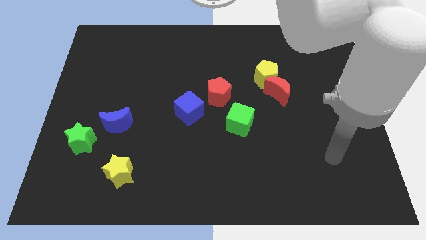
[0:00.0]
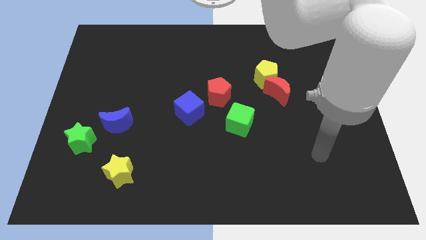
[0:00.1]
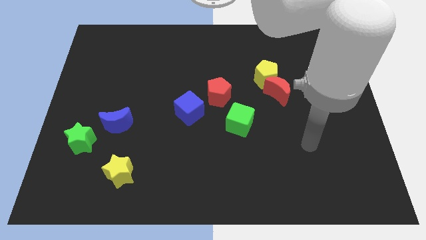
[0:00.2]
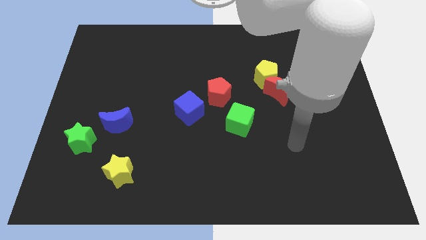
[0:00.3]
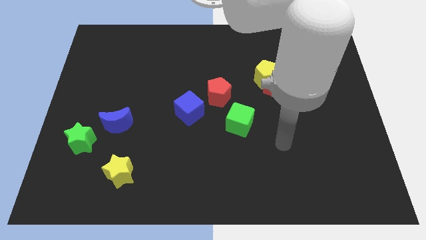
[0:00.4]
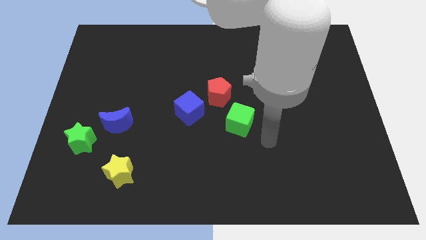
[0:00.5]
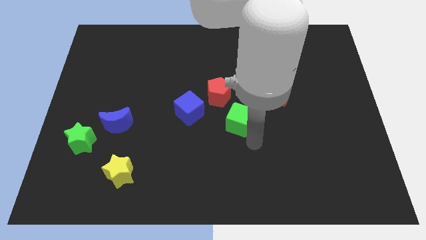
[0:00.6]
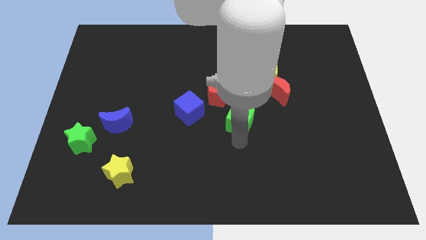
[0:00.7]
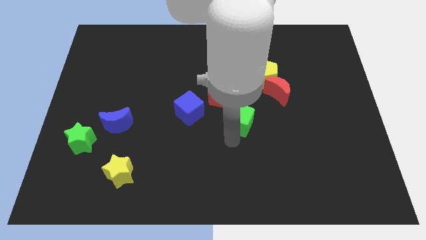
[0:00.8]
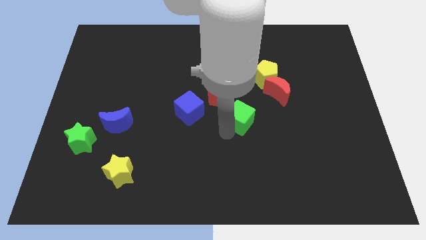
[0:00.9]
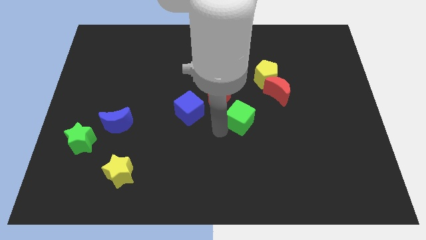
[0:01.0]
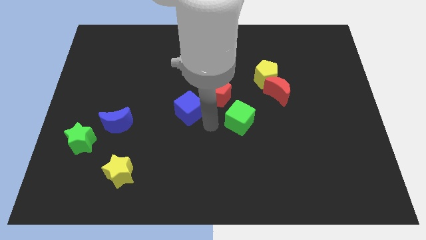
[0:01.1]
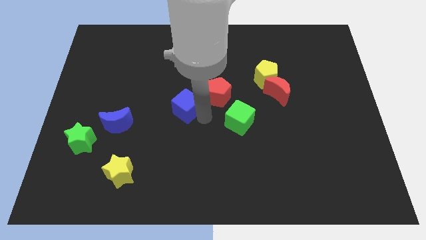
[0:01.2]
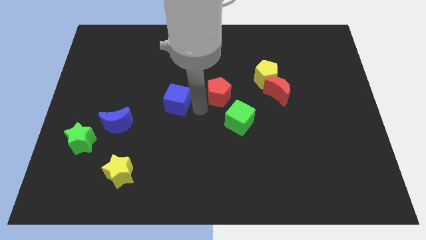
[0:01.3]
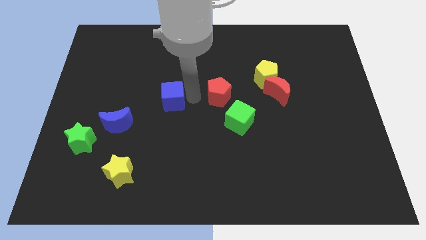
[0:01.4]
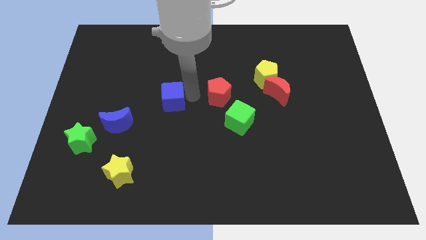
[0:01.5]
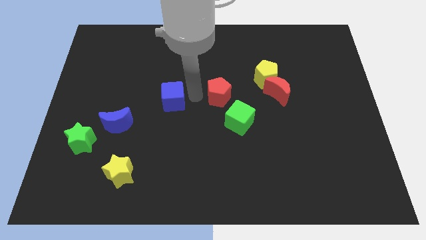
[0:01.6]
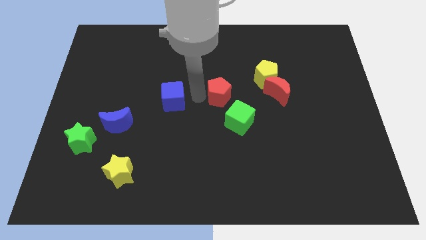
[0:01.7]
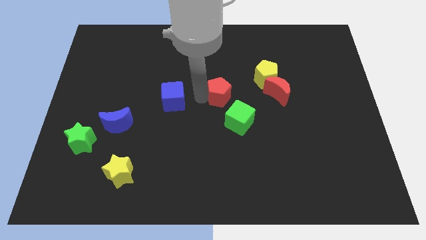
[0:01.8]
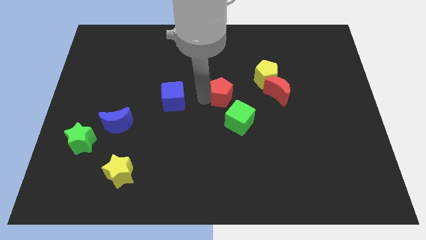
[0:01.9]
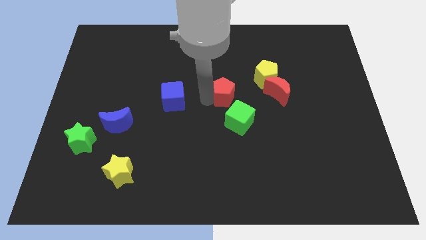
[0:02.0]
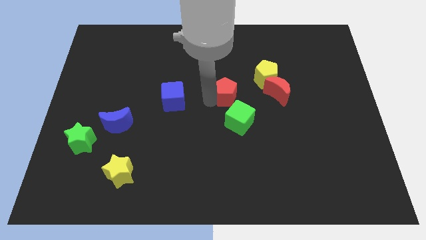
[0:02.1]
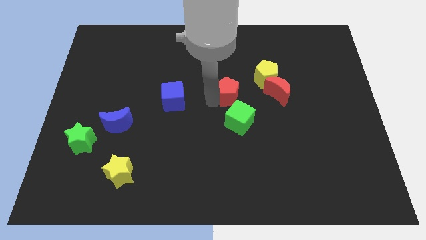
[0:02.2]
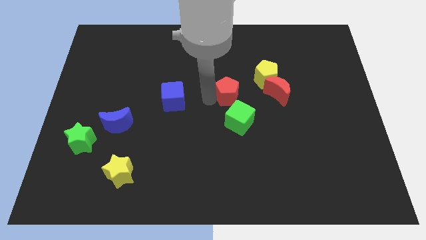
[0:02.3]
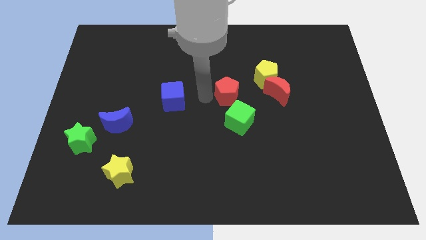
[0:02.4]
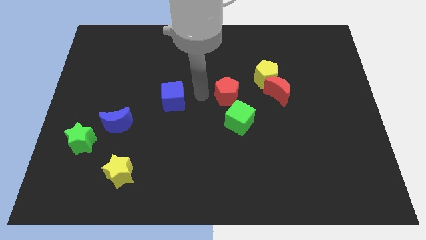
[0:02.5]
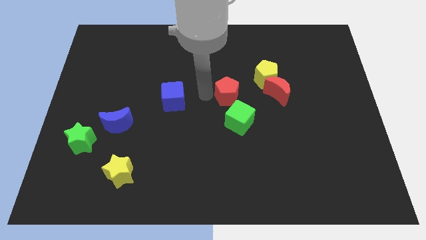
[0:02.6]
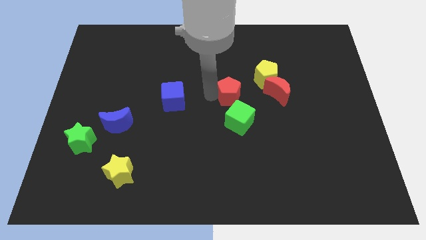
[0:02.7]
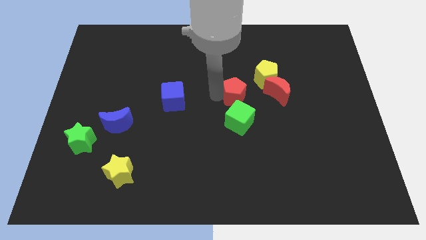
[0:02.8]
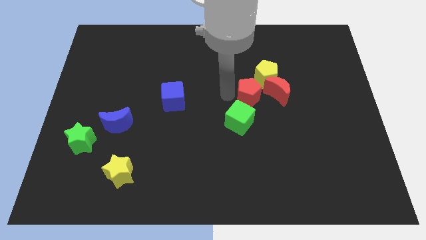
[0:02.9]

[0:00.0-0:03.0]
slide the red pentagon right a bit

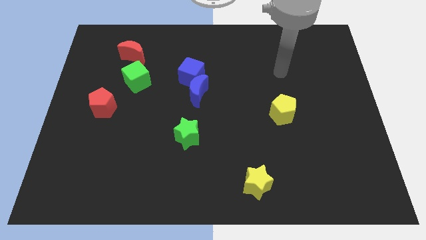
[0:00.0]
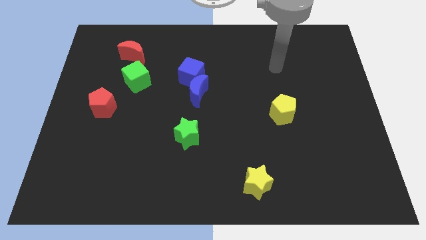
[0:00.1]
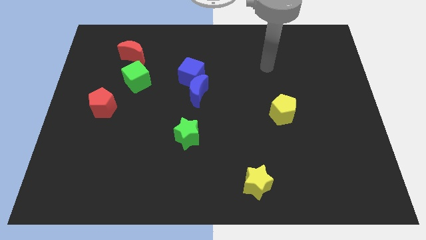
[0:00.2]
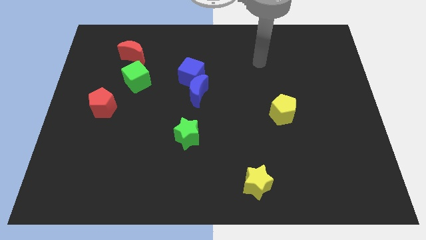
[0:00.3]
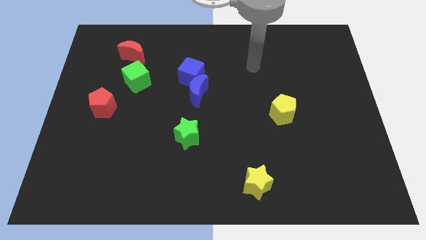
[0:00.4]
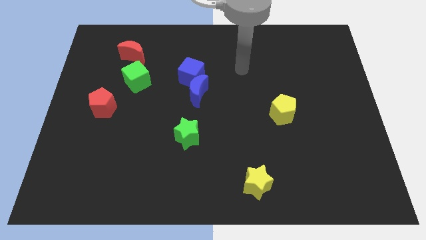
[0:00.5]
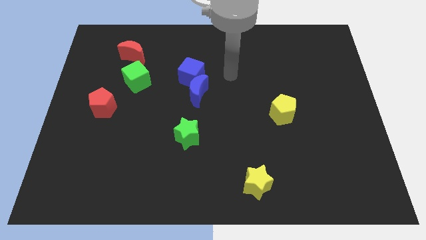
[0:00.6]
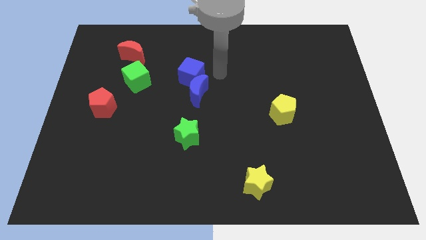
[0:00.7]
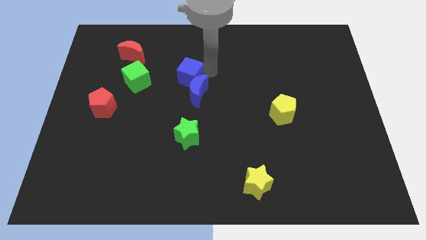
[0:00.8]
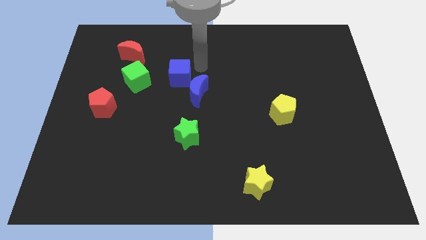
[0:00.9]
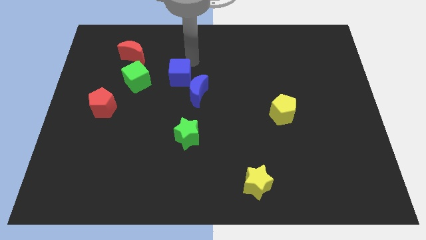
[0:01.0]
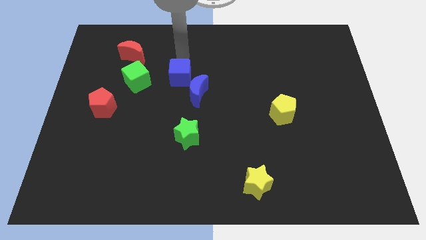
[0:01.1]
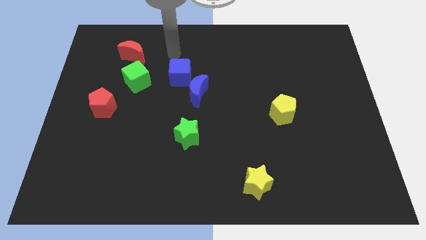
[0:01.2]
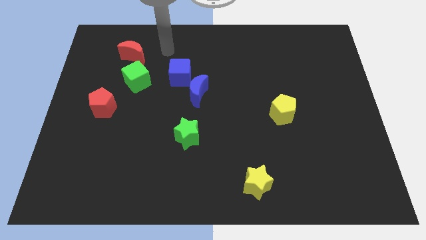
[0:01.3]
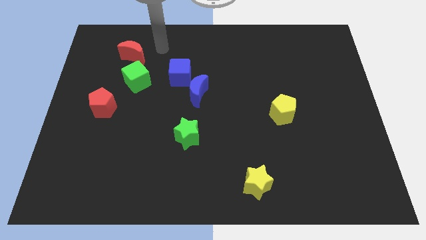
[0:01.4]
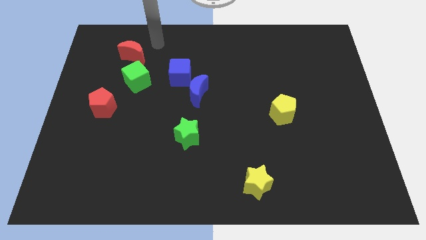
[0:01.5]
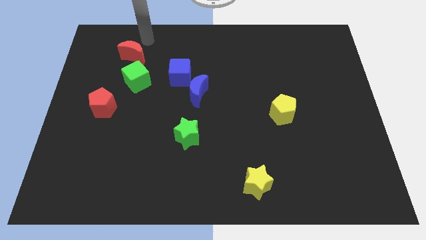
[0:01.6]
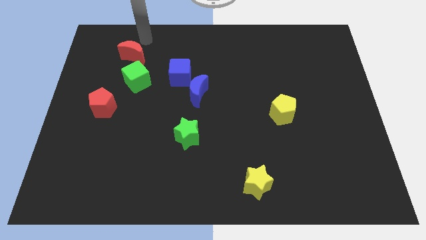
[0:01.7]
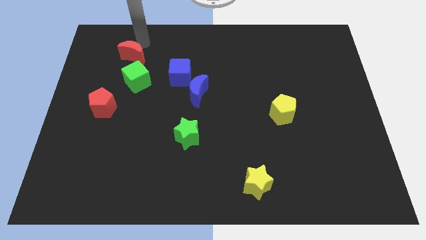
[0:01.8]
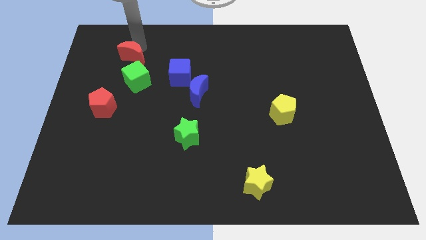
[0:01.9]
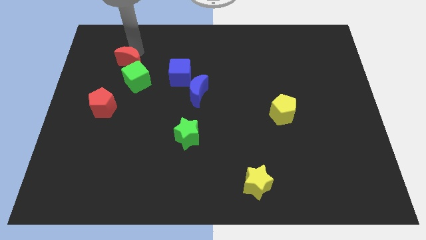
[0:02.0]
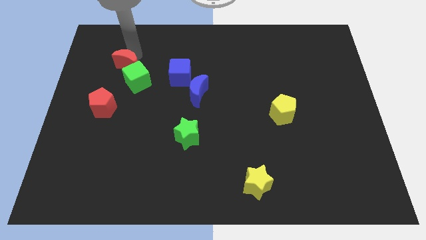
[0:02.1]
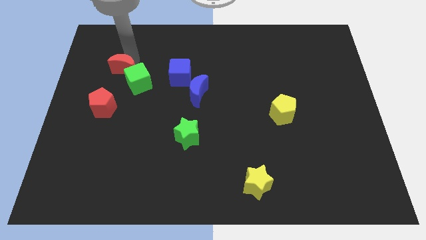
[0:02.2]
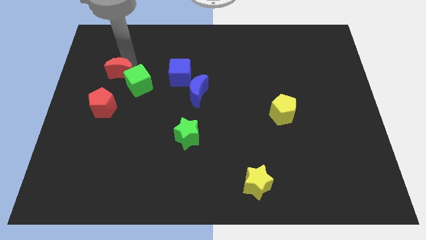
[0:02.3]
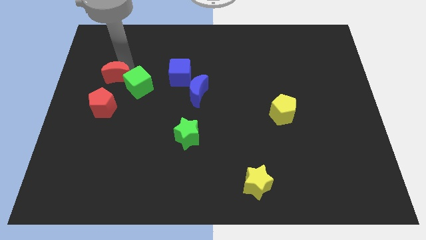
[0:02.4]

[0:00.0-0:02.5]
slightly move the red moon down

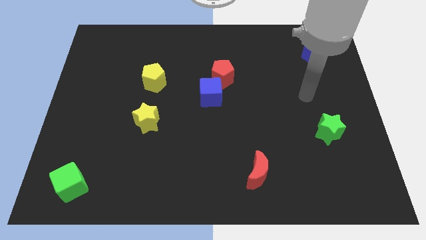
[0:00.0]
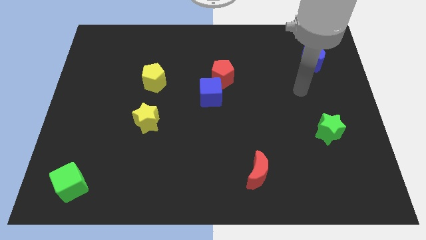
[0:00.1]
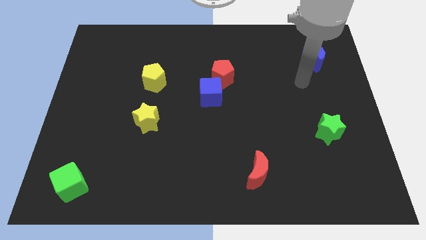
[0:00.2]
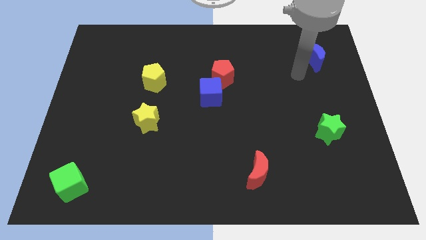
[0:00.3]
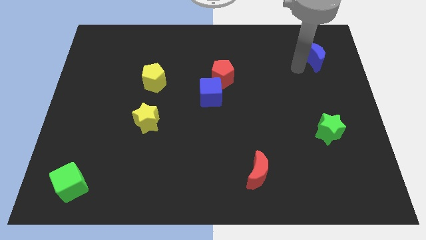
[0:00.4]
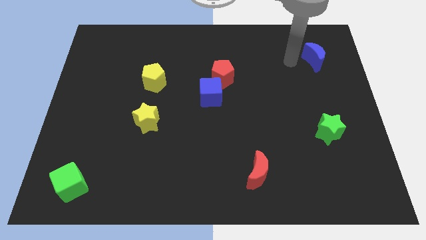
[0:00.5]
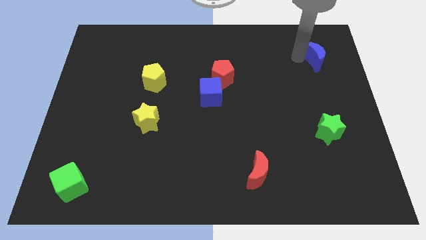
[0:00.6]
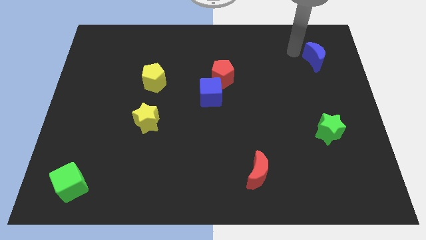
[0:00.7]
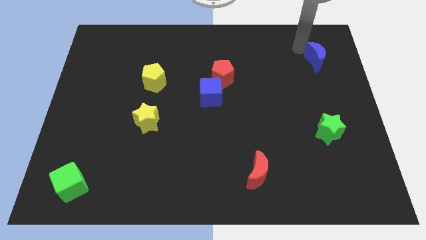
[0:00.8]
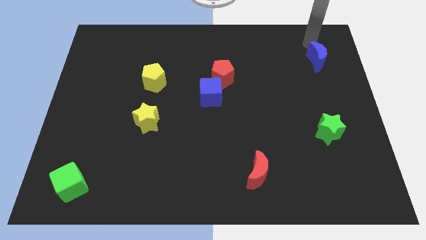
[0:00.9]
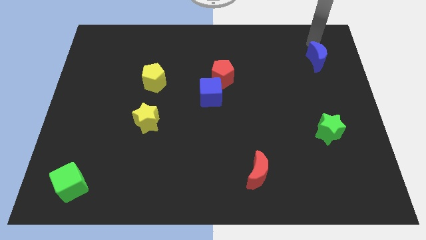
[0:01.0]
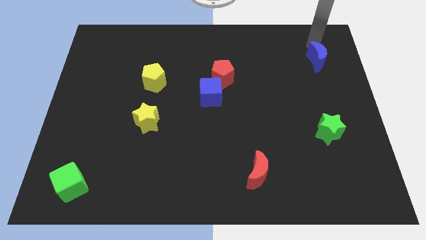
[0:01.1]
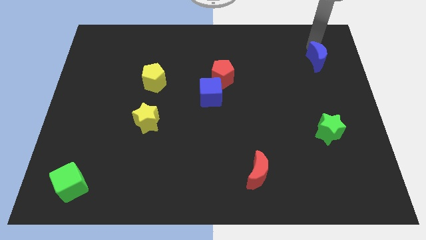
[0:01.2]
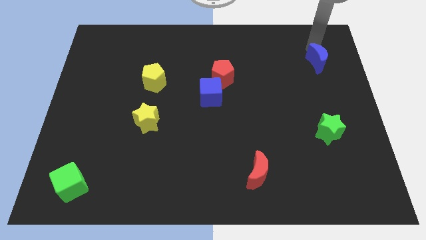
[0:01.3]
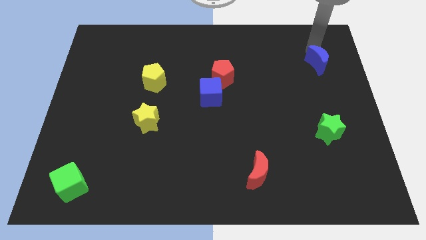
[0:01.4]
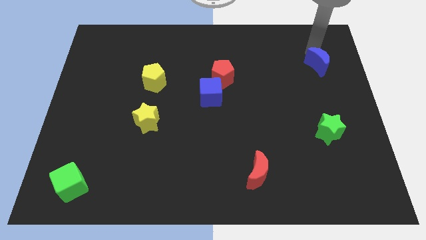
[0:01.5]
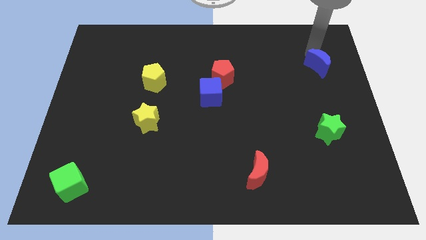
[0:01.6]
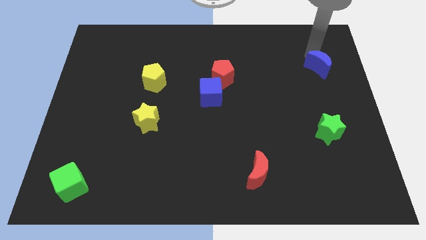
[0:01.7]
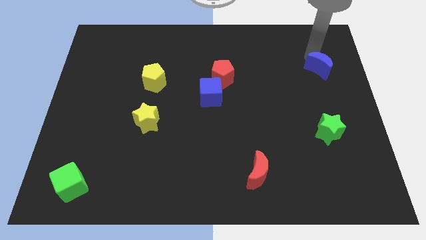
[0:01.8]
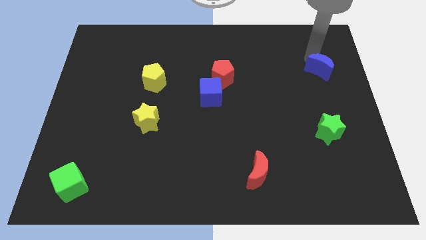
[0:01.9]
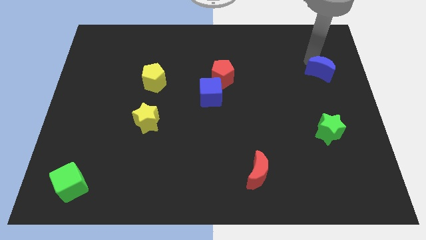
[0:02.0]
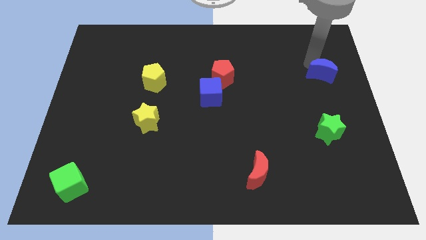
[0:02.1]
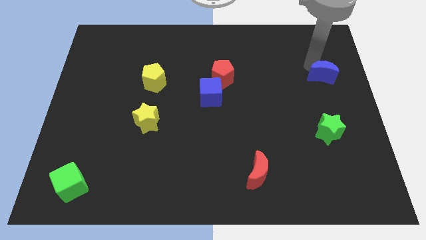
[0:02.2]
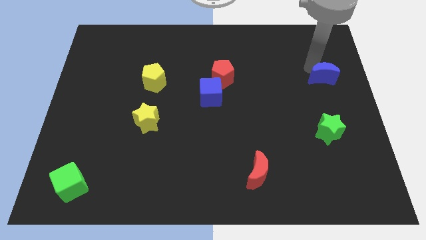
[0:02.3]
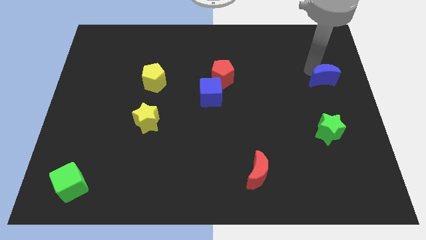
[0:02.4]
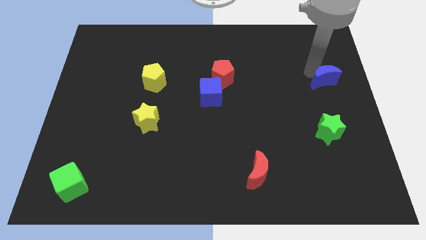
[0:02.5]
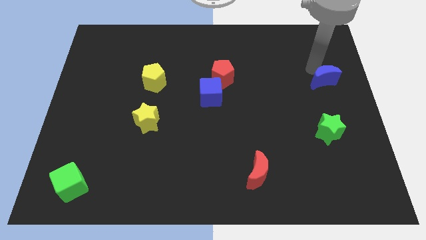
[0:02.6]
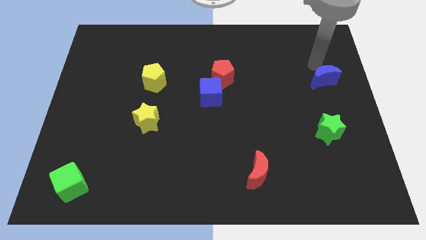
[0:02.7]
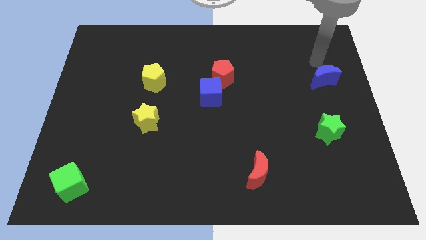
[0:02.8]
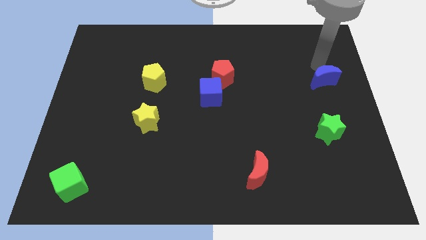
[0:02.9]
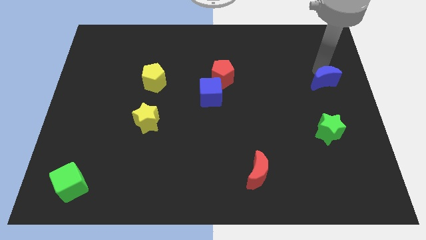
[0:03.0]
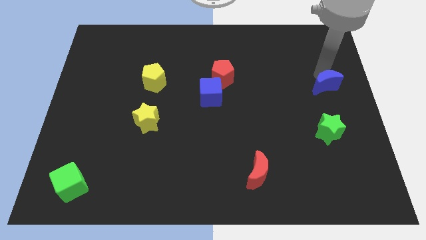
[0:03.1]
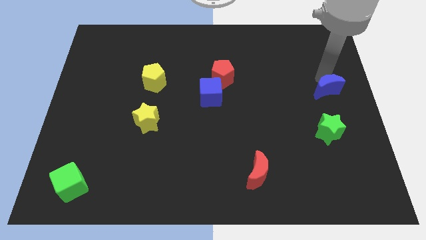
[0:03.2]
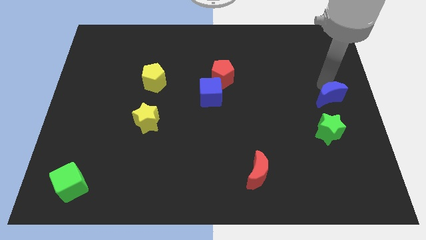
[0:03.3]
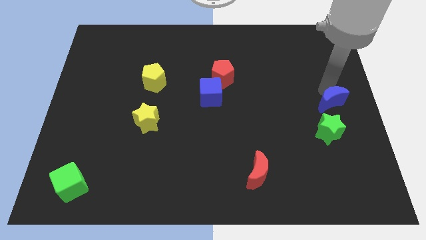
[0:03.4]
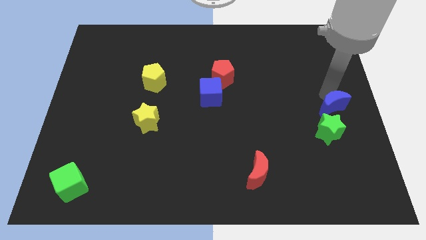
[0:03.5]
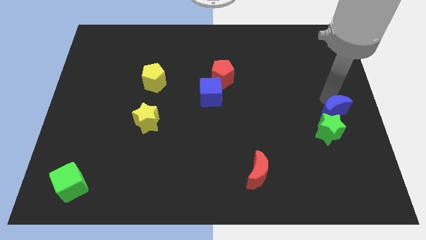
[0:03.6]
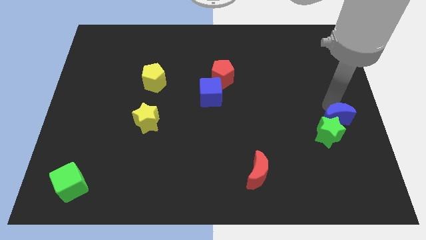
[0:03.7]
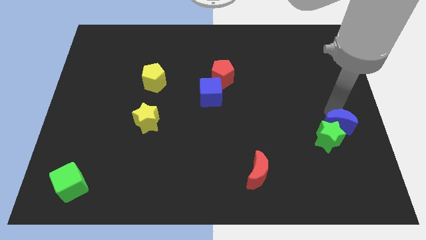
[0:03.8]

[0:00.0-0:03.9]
slide the blue moon down
